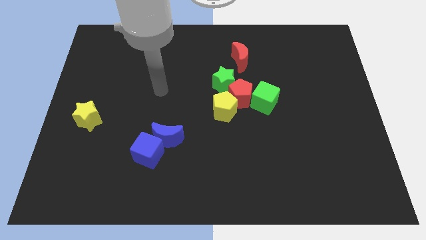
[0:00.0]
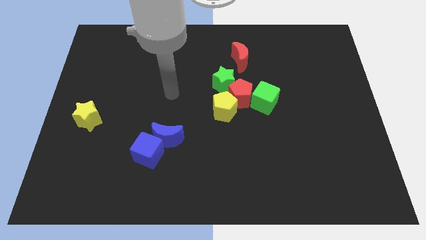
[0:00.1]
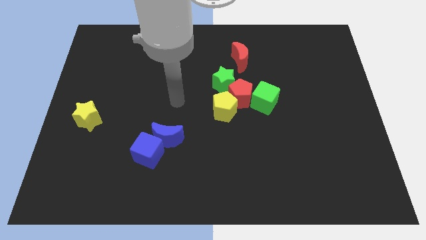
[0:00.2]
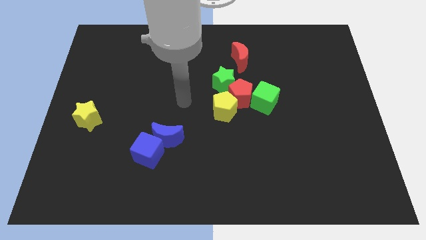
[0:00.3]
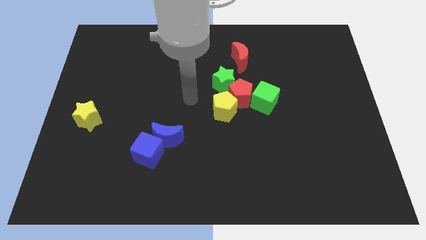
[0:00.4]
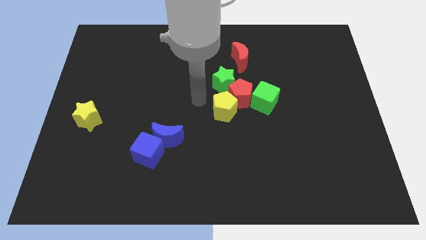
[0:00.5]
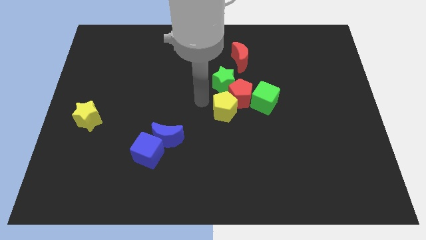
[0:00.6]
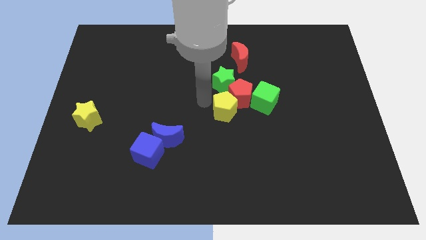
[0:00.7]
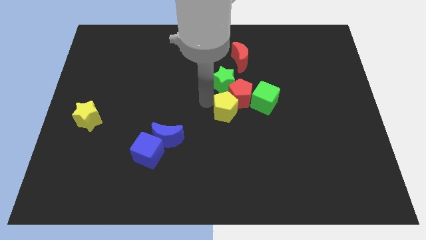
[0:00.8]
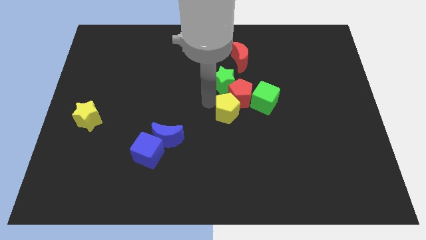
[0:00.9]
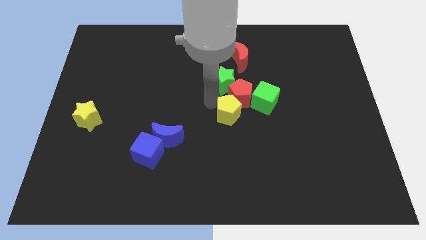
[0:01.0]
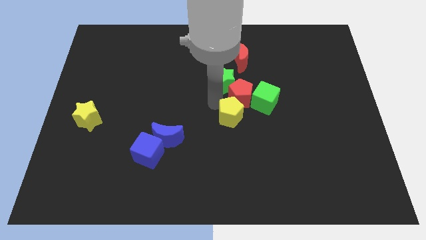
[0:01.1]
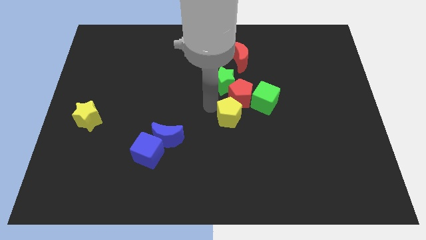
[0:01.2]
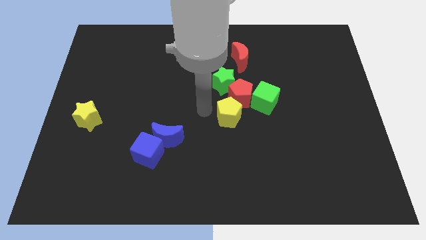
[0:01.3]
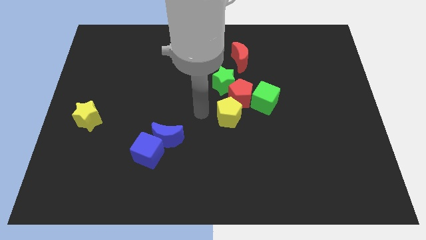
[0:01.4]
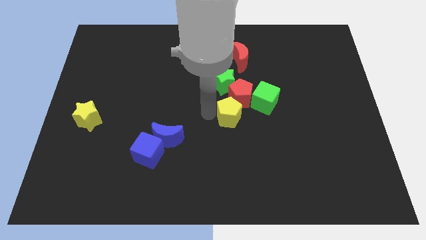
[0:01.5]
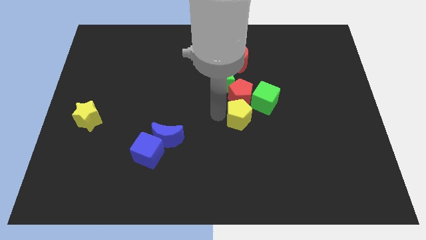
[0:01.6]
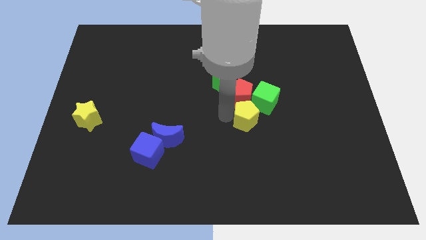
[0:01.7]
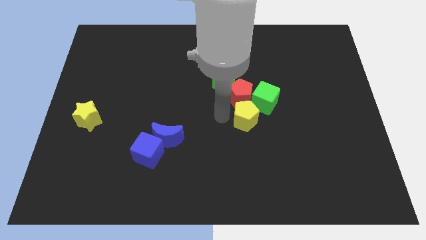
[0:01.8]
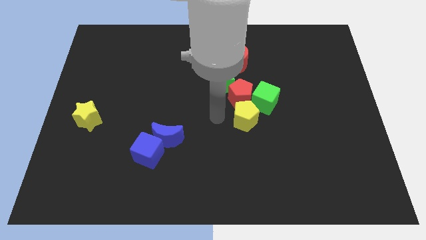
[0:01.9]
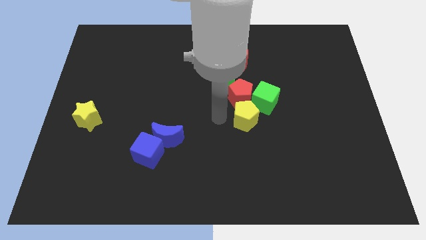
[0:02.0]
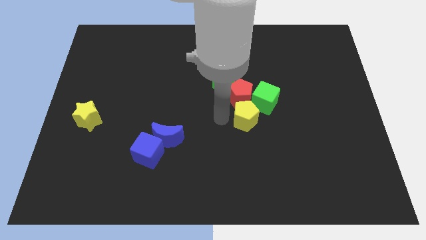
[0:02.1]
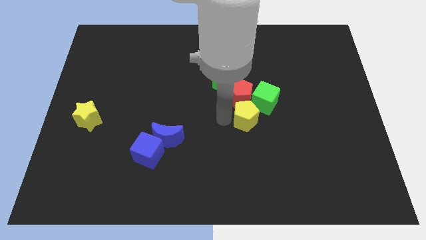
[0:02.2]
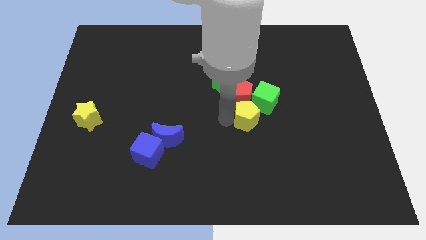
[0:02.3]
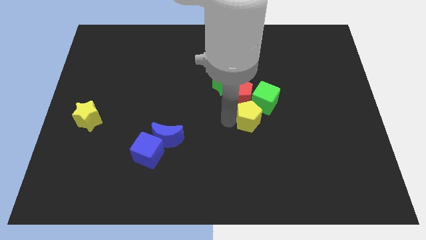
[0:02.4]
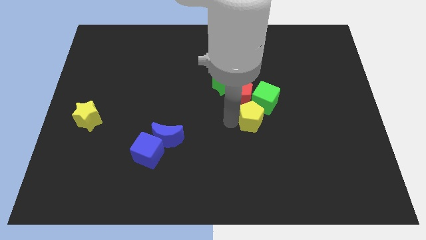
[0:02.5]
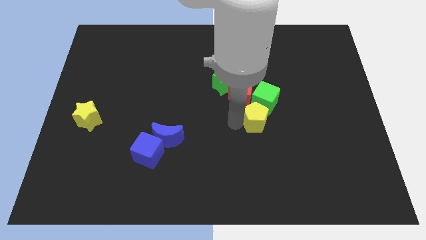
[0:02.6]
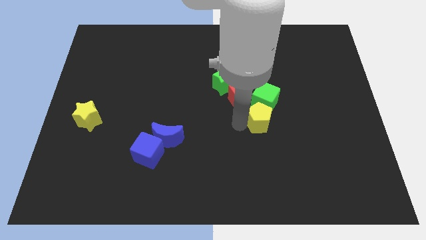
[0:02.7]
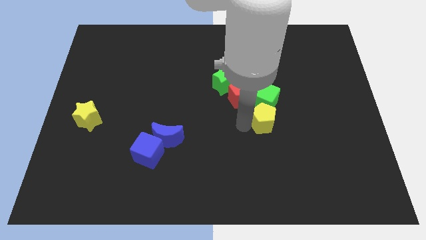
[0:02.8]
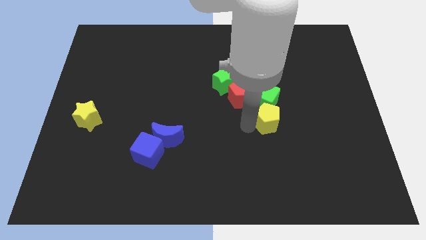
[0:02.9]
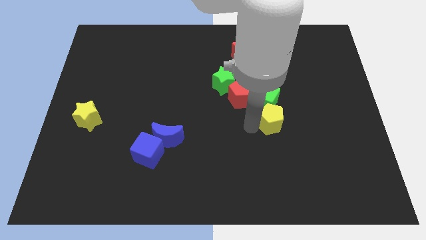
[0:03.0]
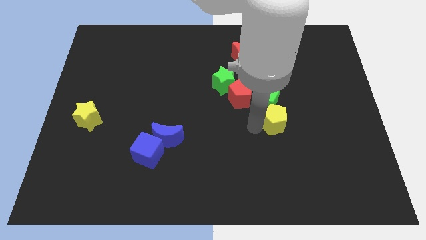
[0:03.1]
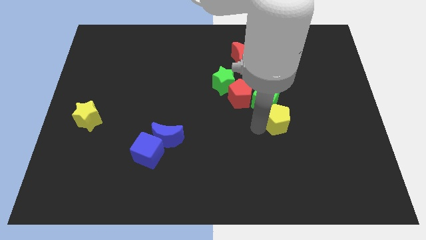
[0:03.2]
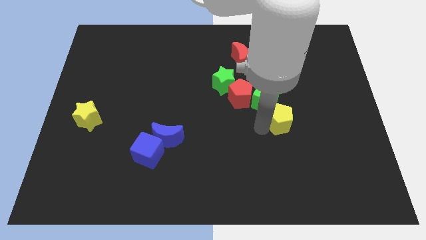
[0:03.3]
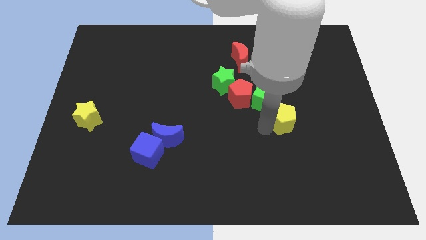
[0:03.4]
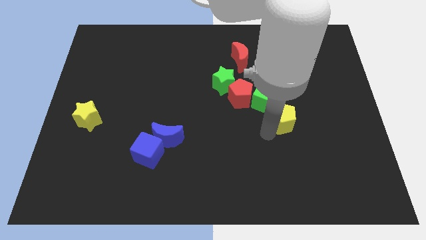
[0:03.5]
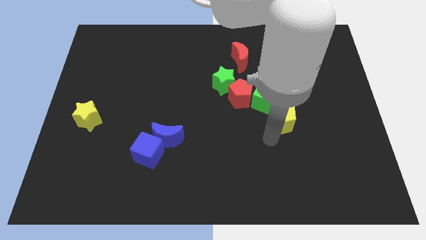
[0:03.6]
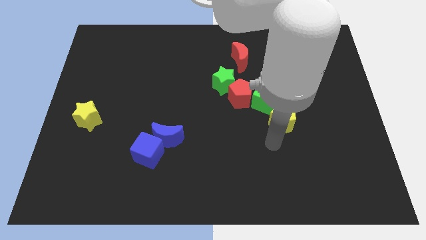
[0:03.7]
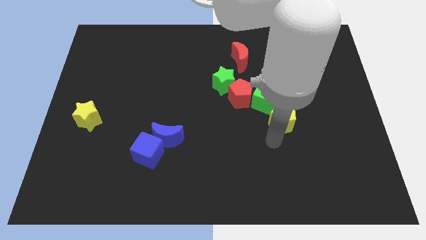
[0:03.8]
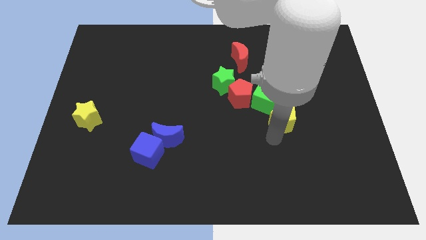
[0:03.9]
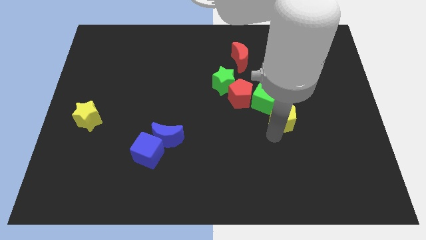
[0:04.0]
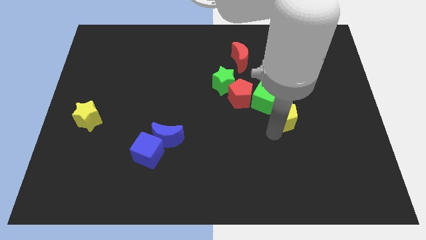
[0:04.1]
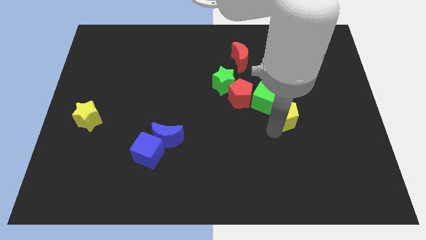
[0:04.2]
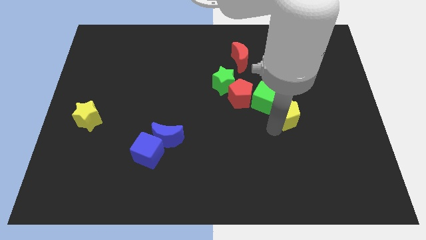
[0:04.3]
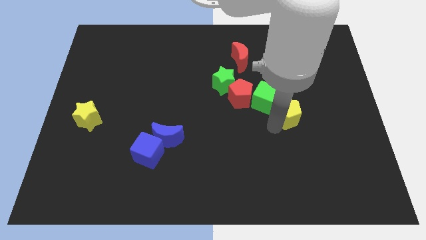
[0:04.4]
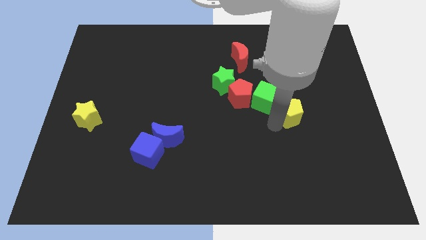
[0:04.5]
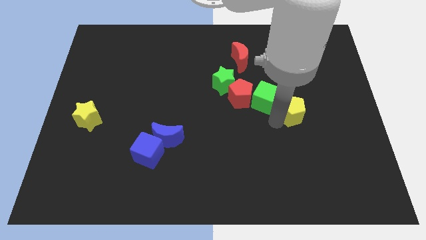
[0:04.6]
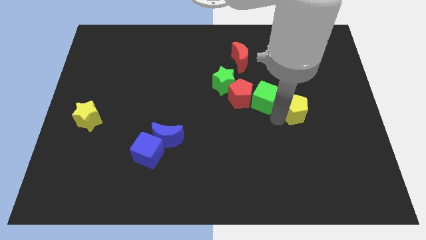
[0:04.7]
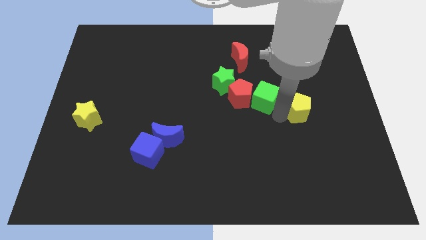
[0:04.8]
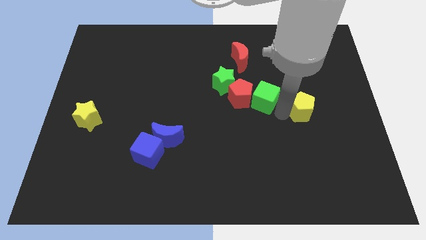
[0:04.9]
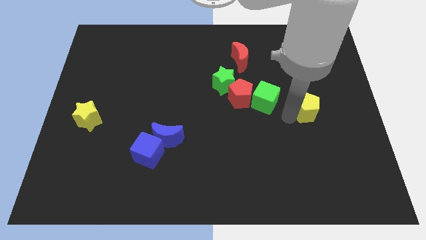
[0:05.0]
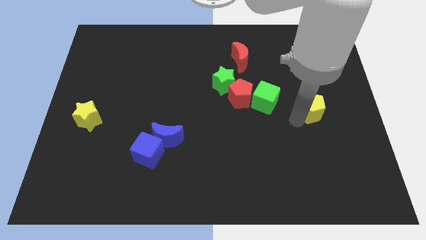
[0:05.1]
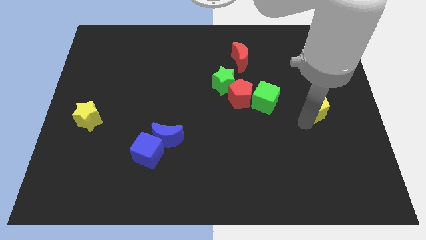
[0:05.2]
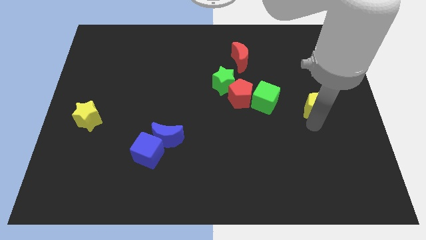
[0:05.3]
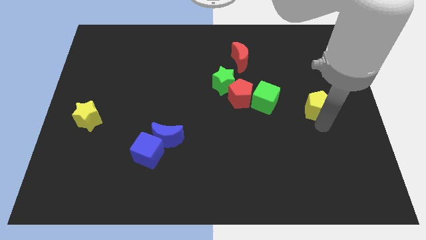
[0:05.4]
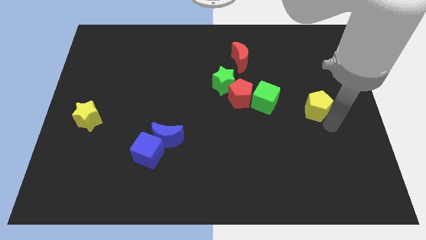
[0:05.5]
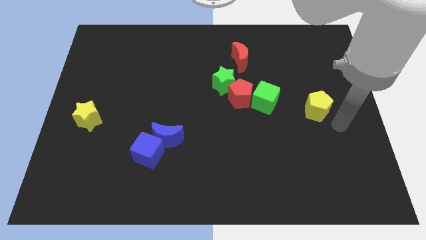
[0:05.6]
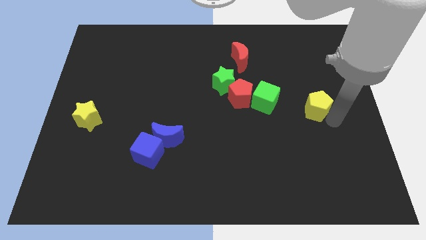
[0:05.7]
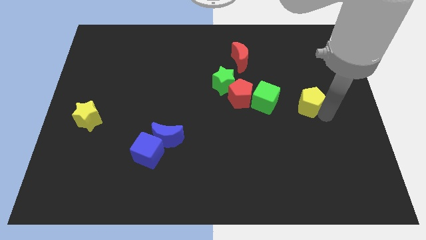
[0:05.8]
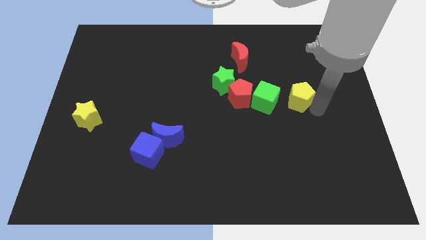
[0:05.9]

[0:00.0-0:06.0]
slide the yellow pentagon a little diagonally up and to the right

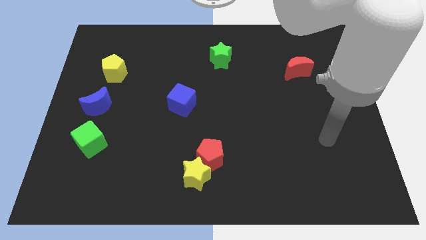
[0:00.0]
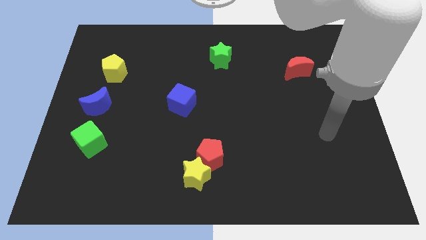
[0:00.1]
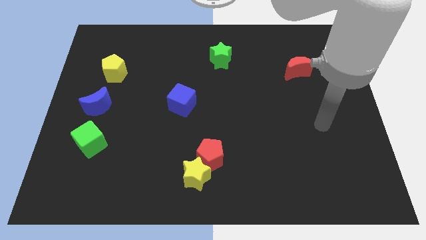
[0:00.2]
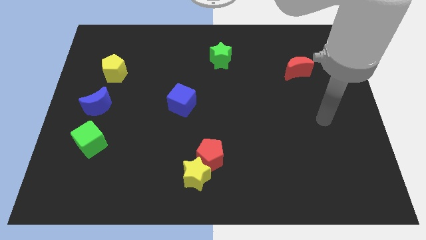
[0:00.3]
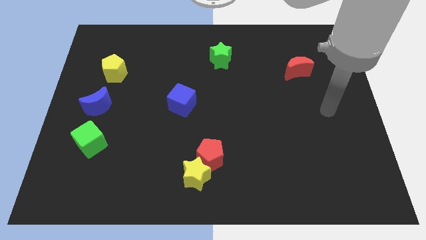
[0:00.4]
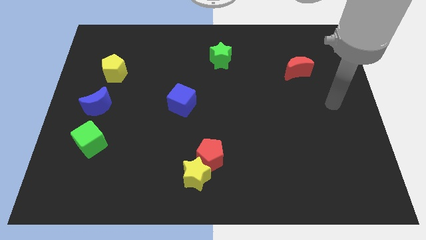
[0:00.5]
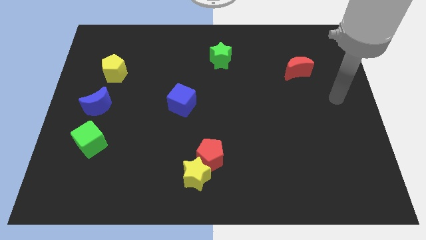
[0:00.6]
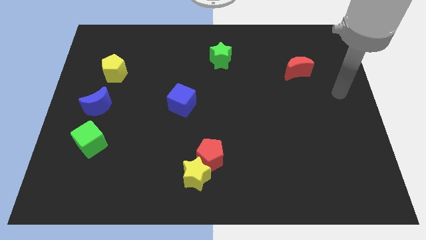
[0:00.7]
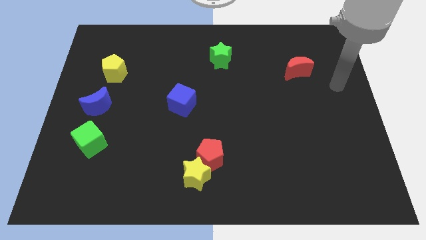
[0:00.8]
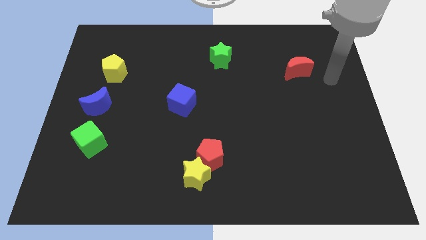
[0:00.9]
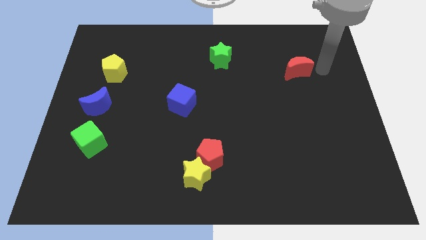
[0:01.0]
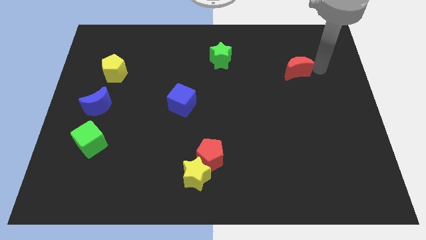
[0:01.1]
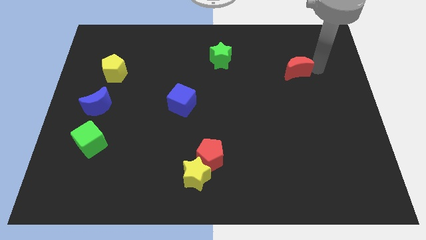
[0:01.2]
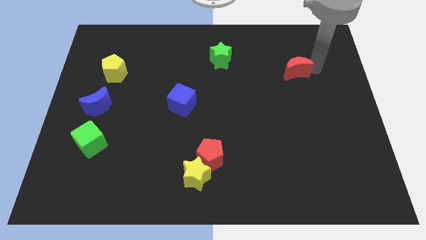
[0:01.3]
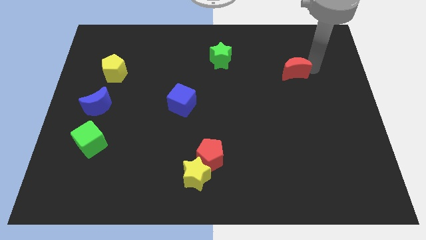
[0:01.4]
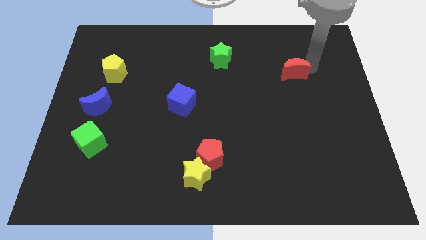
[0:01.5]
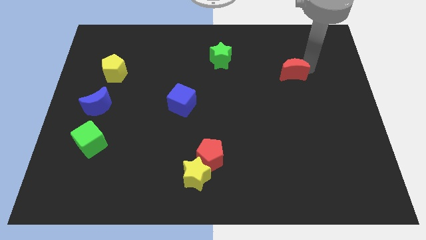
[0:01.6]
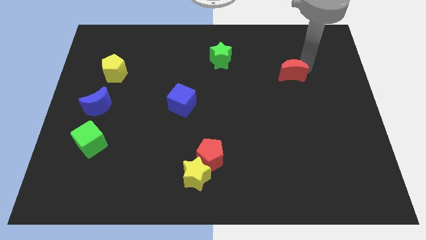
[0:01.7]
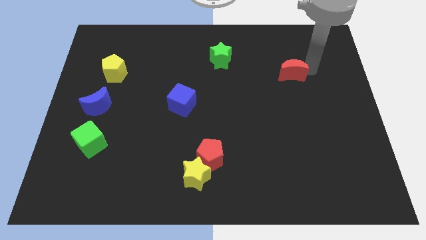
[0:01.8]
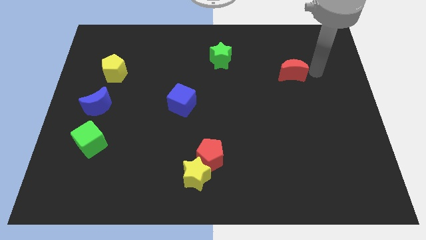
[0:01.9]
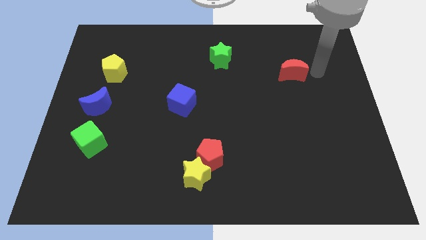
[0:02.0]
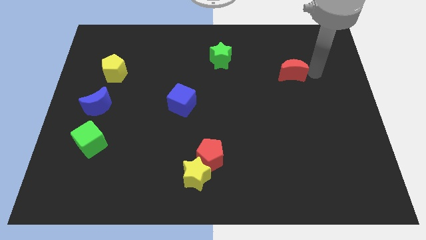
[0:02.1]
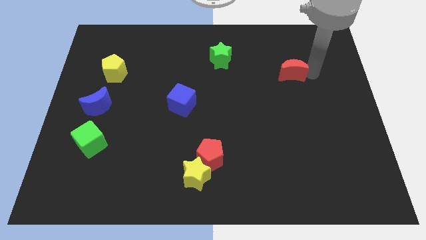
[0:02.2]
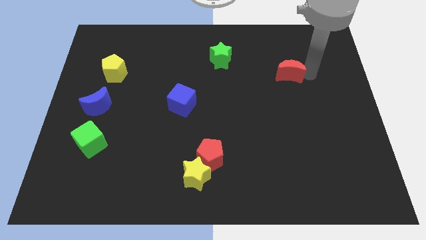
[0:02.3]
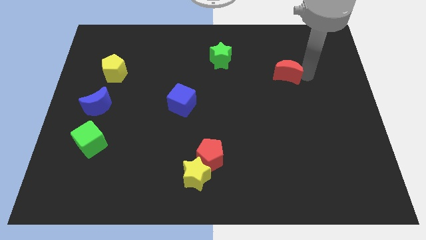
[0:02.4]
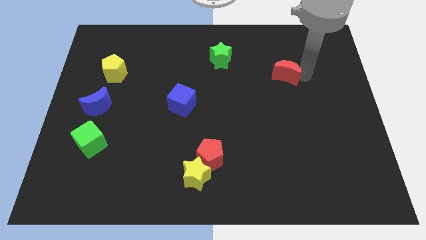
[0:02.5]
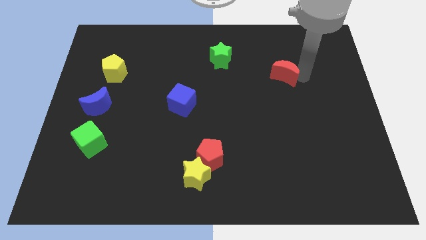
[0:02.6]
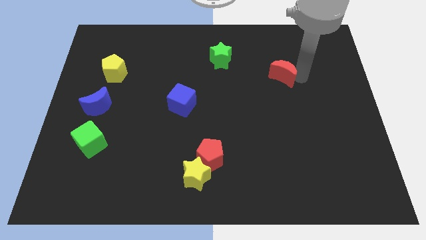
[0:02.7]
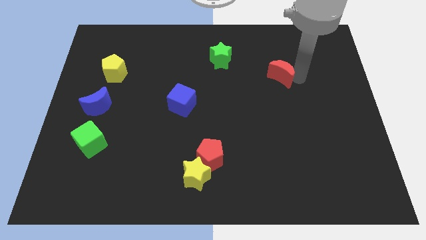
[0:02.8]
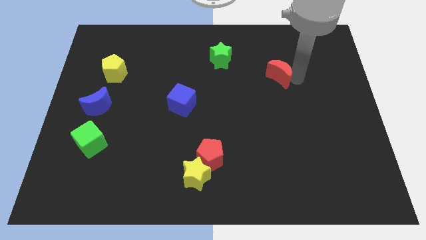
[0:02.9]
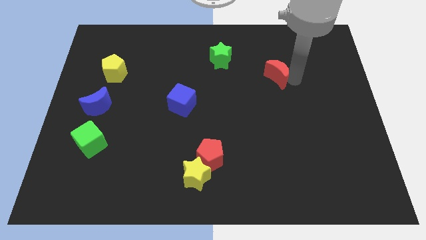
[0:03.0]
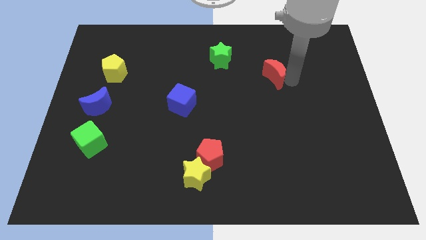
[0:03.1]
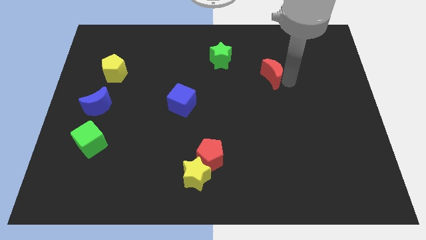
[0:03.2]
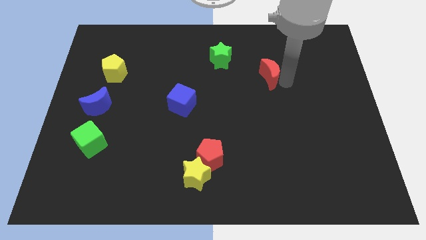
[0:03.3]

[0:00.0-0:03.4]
slightly slide the red moon left
